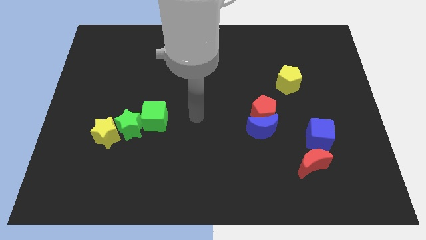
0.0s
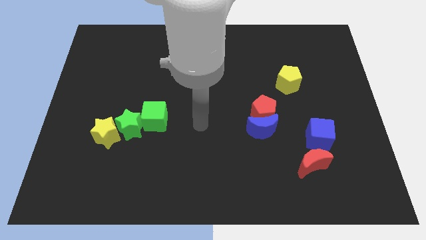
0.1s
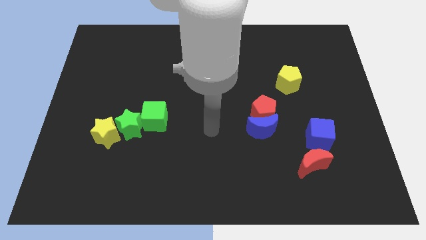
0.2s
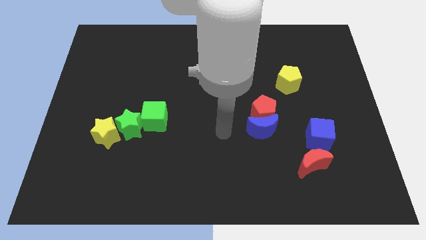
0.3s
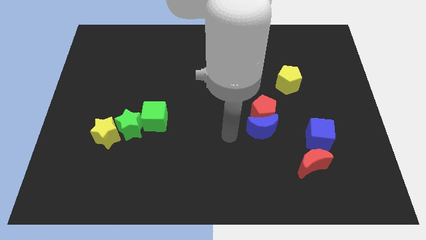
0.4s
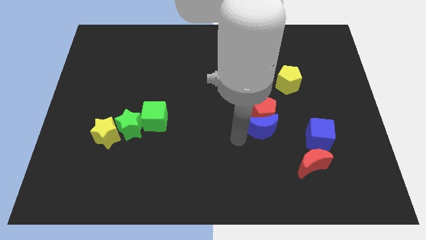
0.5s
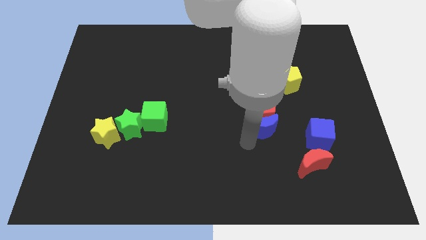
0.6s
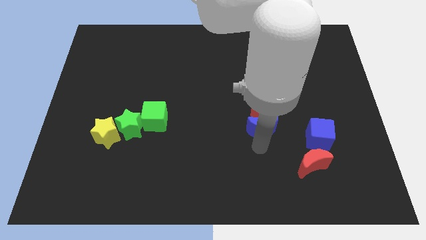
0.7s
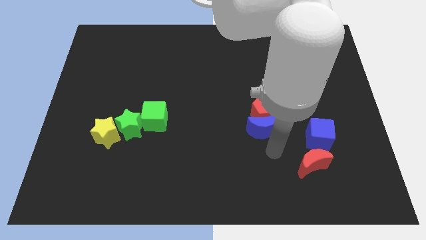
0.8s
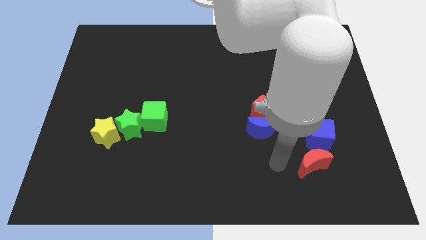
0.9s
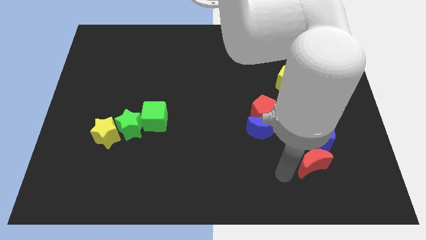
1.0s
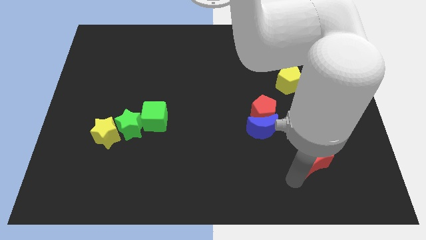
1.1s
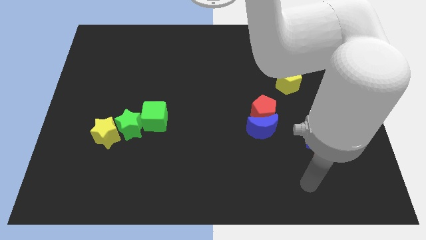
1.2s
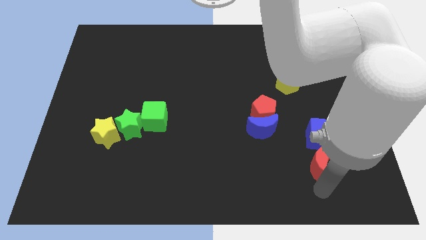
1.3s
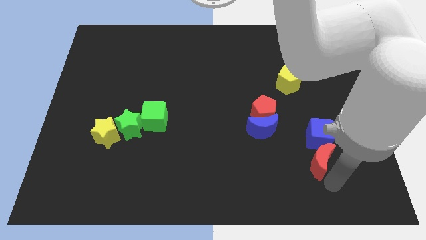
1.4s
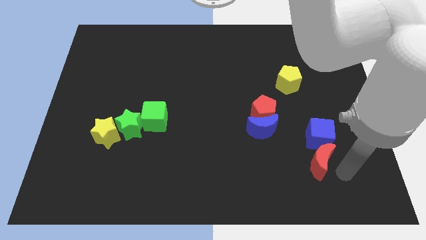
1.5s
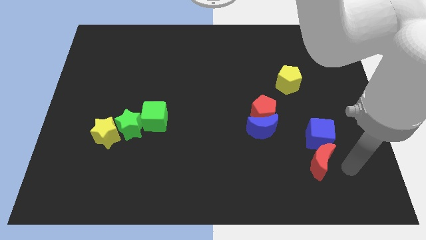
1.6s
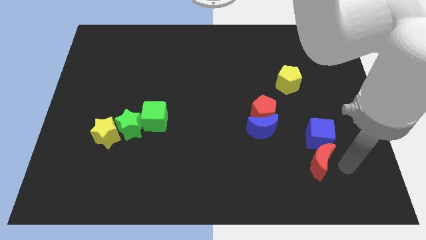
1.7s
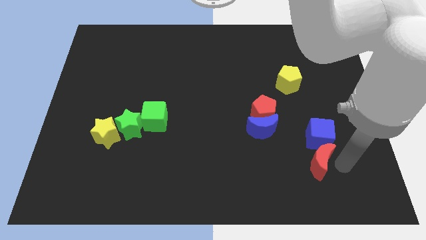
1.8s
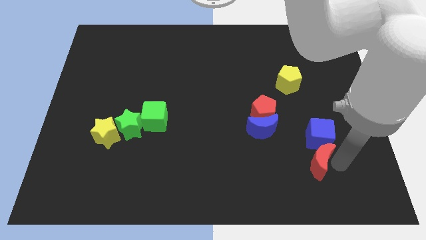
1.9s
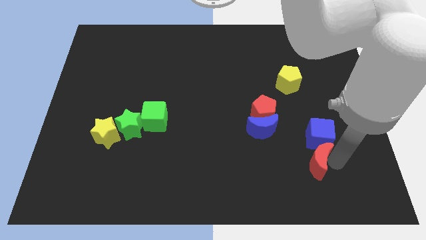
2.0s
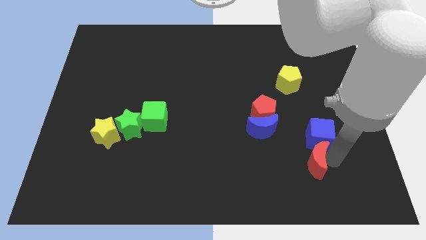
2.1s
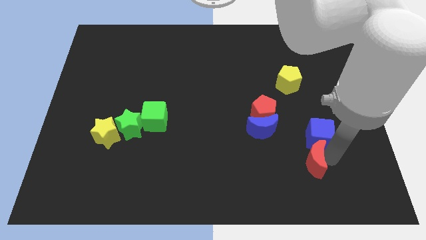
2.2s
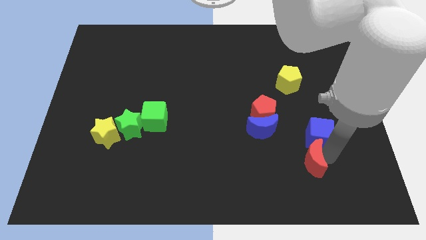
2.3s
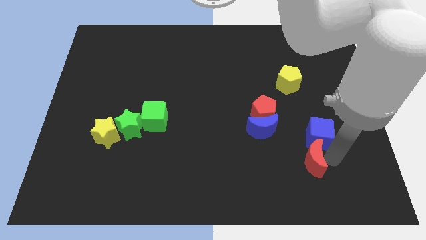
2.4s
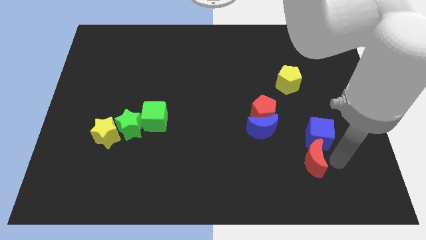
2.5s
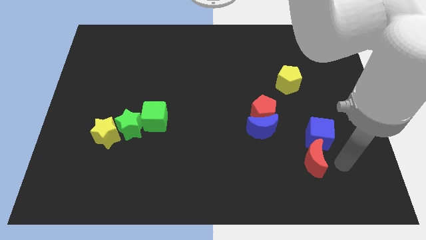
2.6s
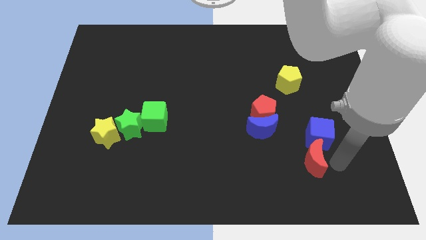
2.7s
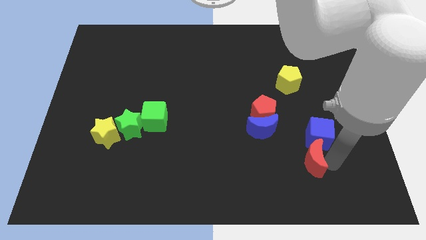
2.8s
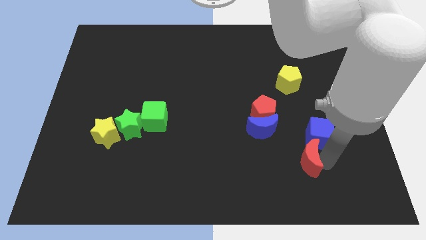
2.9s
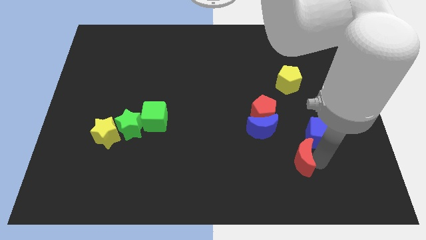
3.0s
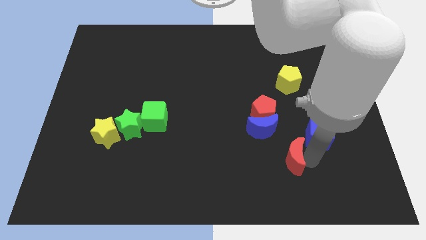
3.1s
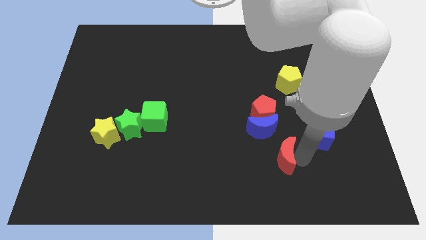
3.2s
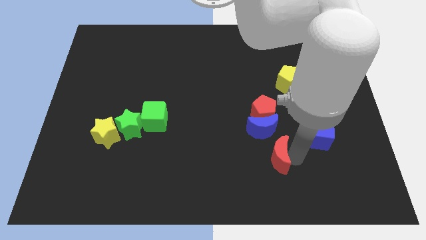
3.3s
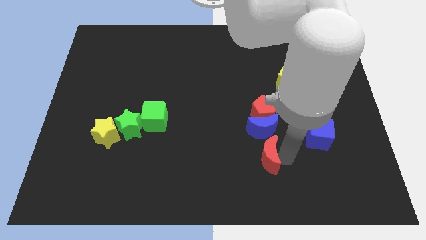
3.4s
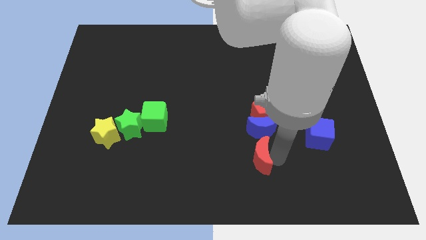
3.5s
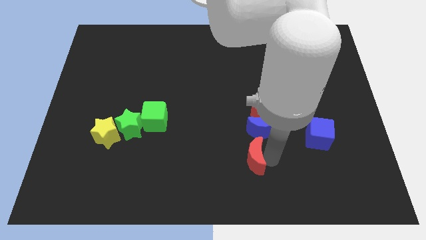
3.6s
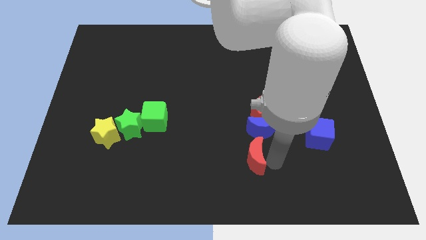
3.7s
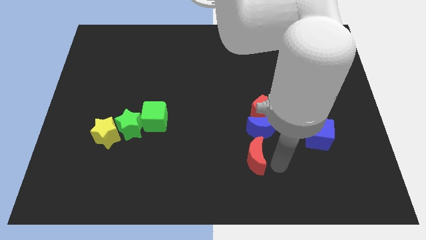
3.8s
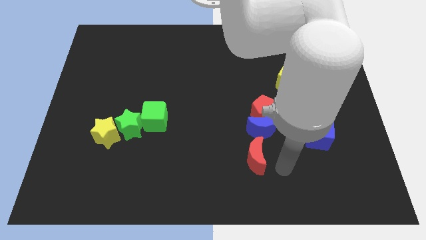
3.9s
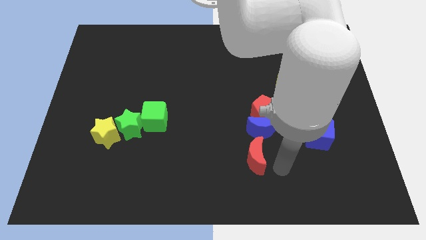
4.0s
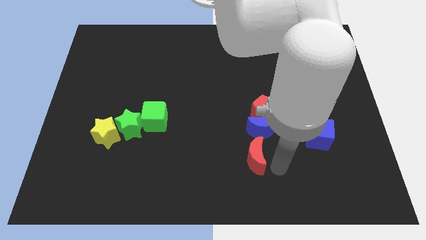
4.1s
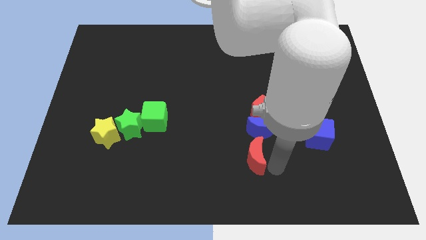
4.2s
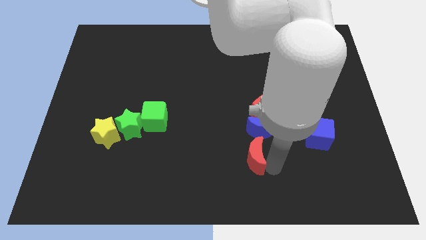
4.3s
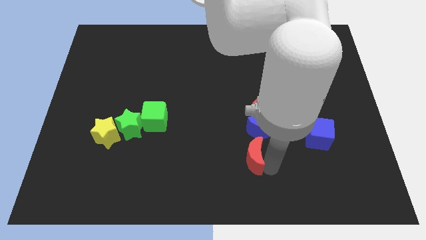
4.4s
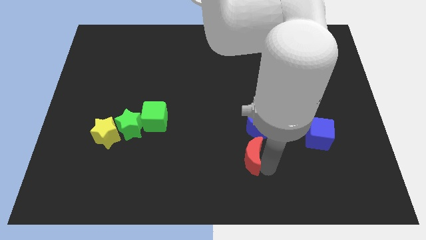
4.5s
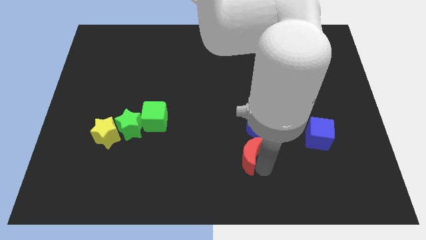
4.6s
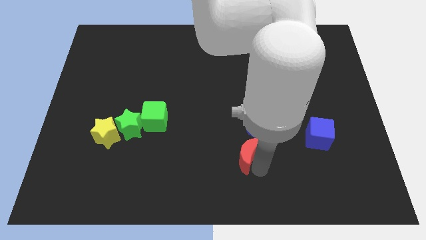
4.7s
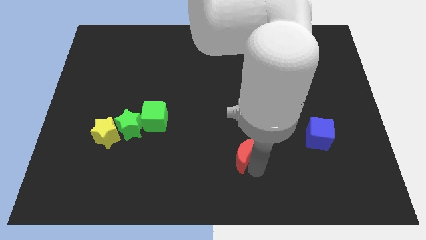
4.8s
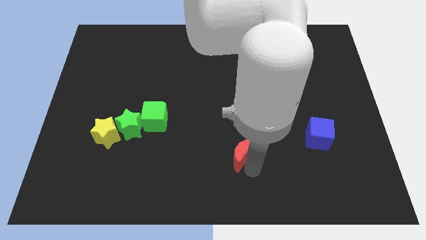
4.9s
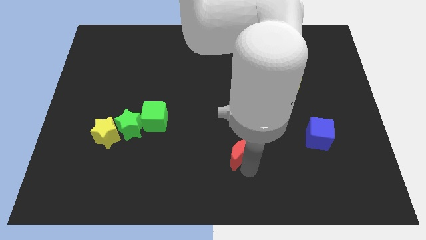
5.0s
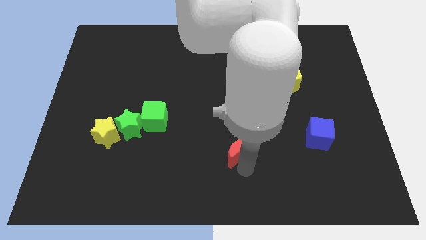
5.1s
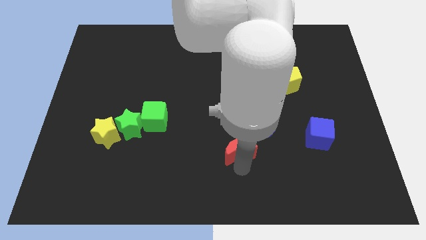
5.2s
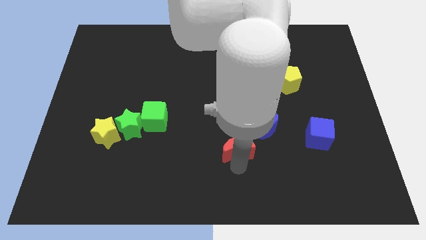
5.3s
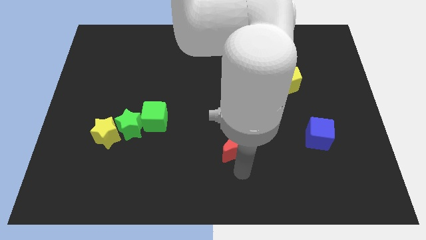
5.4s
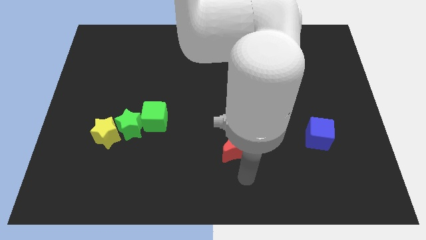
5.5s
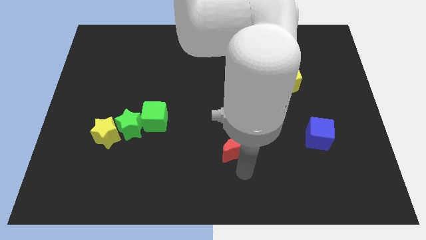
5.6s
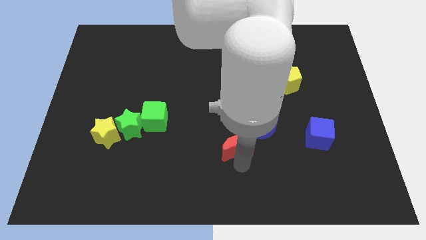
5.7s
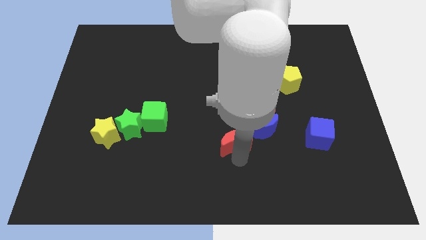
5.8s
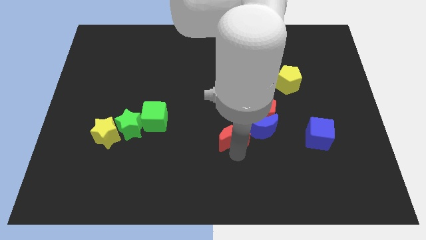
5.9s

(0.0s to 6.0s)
move the red moon to the middle

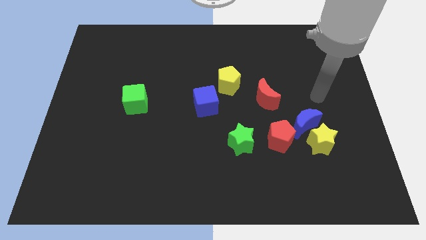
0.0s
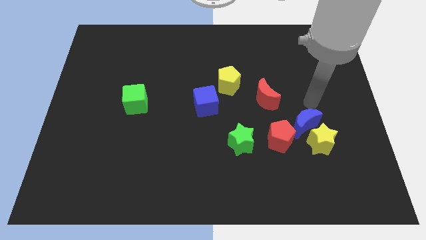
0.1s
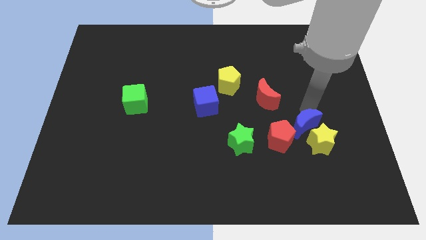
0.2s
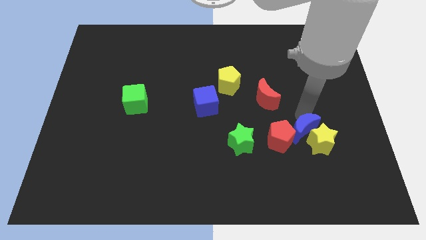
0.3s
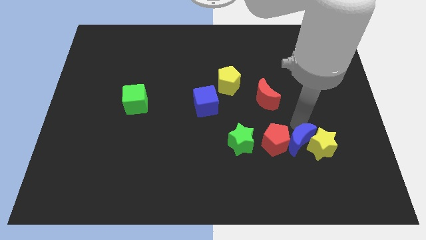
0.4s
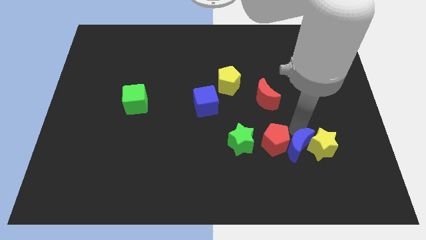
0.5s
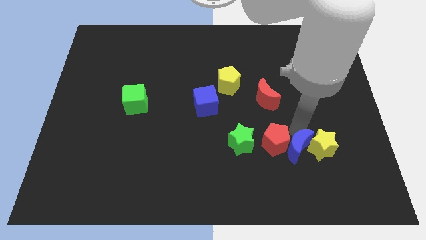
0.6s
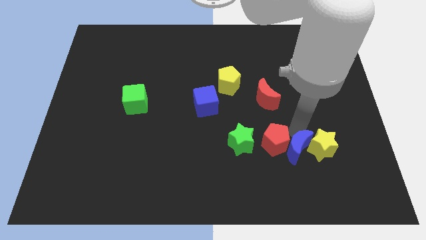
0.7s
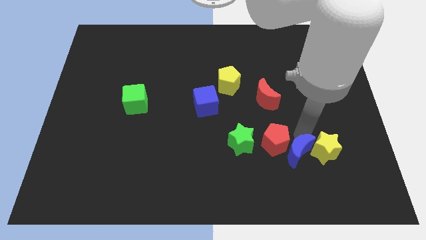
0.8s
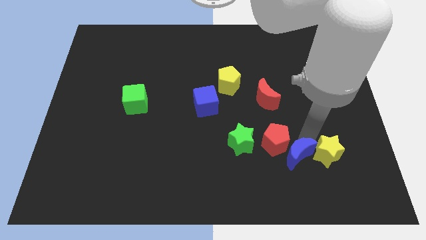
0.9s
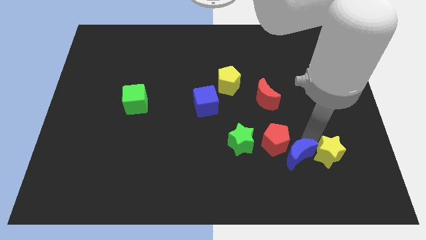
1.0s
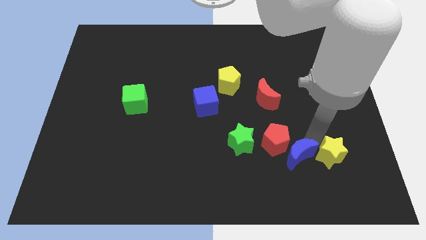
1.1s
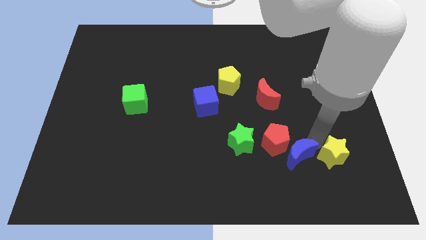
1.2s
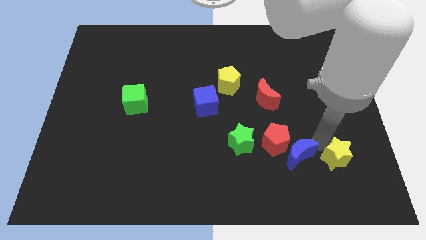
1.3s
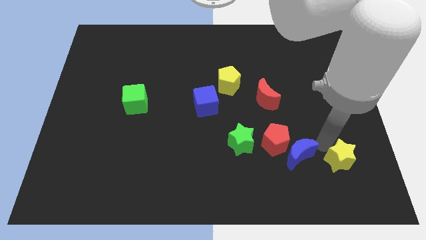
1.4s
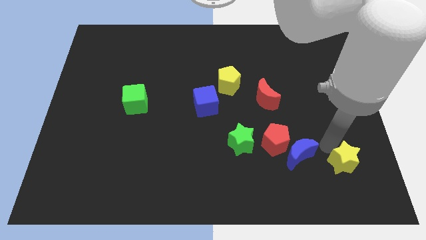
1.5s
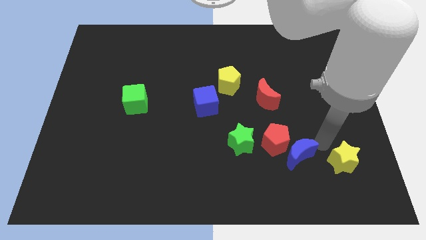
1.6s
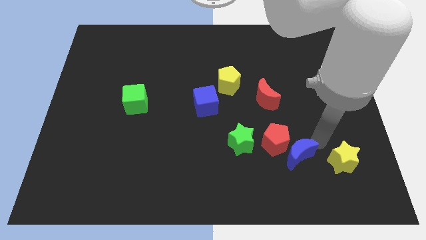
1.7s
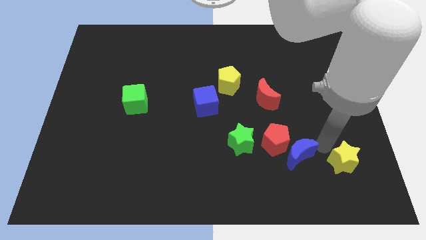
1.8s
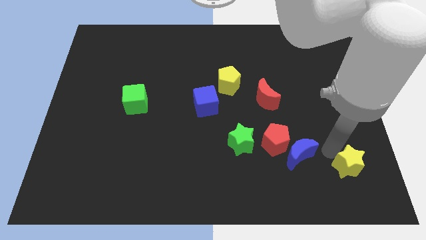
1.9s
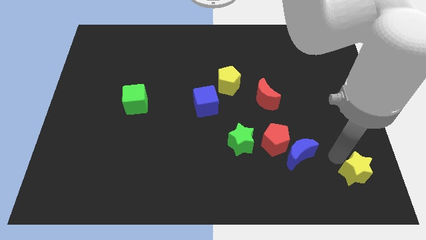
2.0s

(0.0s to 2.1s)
slide the yellow star to the bottom right of the board
